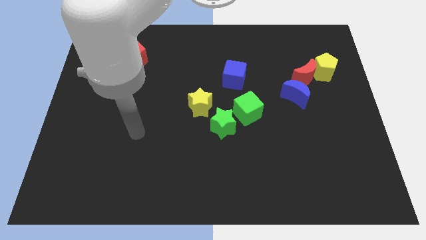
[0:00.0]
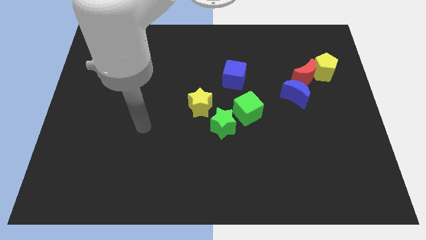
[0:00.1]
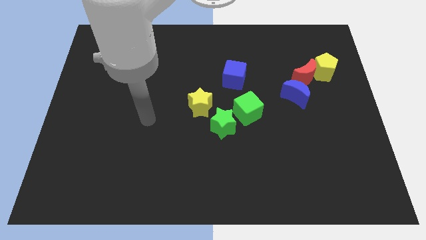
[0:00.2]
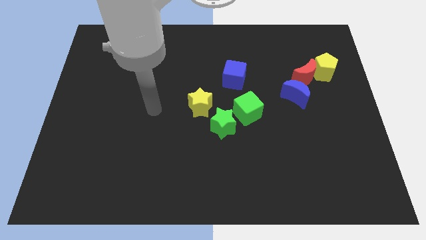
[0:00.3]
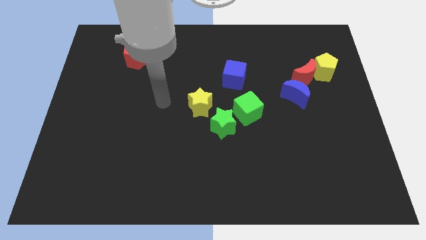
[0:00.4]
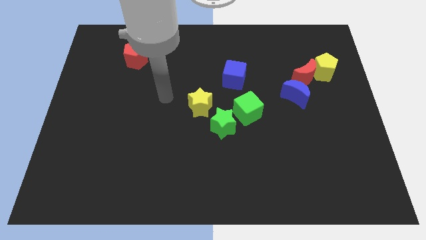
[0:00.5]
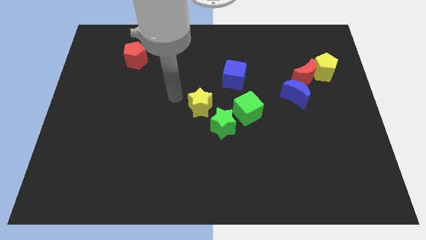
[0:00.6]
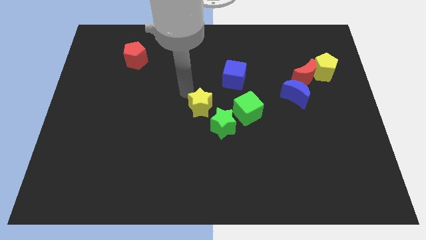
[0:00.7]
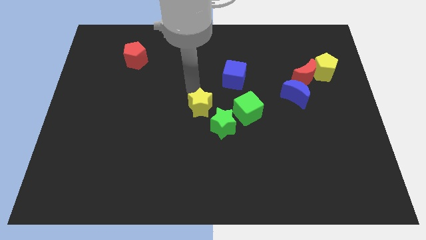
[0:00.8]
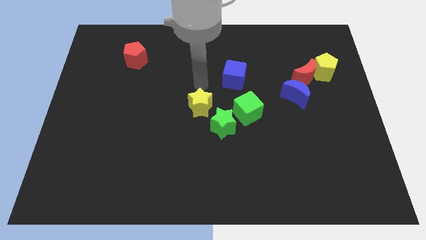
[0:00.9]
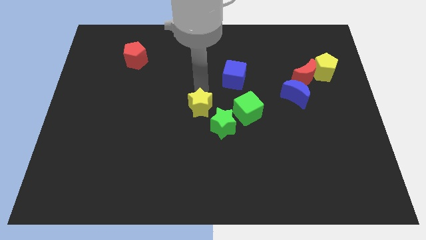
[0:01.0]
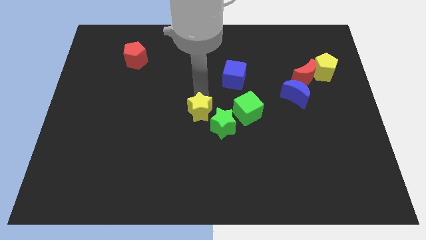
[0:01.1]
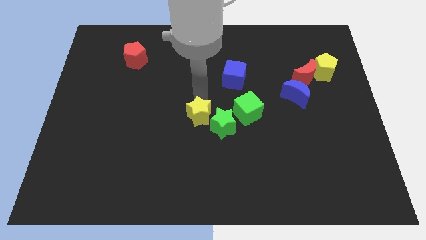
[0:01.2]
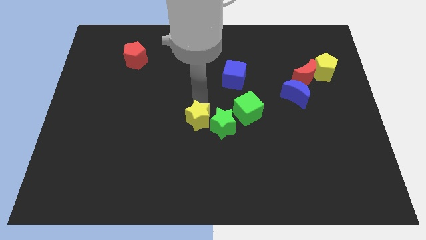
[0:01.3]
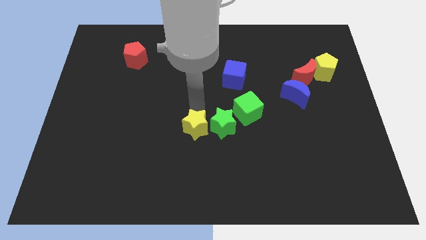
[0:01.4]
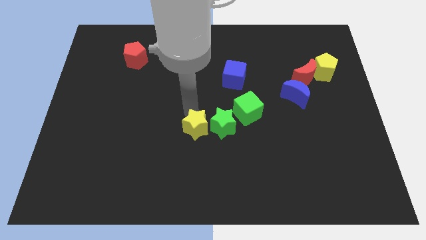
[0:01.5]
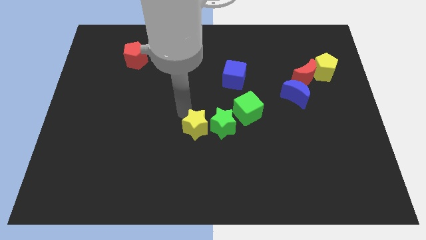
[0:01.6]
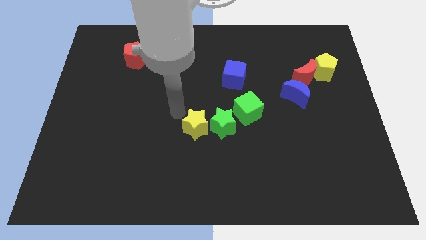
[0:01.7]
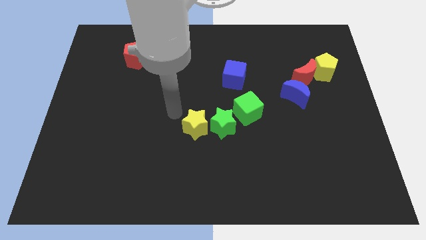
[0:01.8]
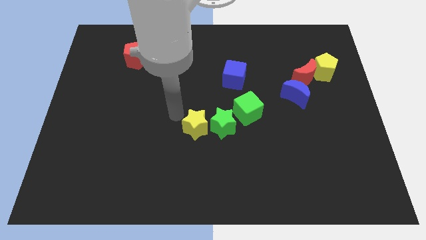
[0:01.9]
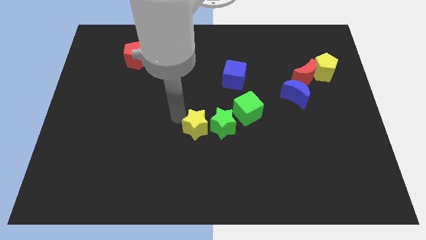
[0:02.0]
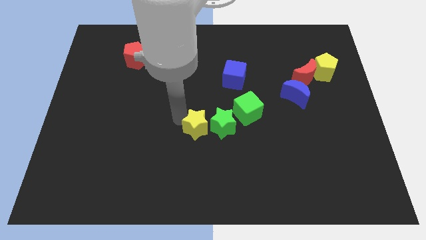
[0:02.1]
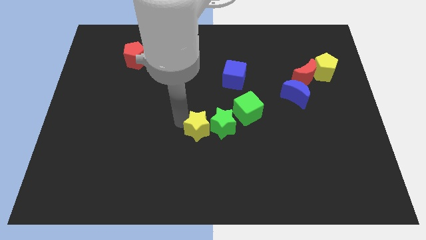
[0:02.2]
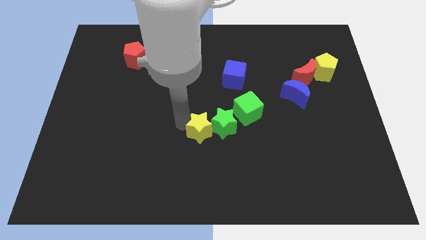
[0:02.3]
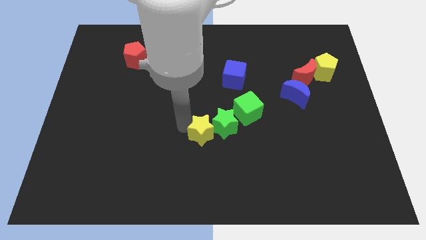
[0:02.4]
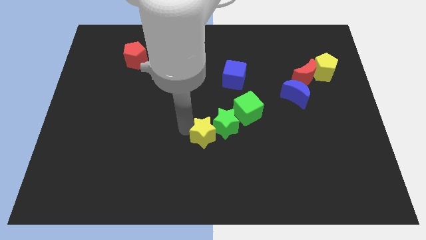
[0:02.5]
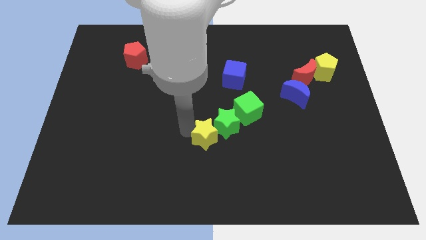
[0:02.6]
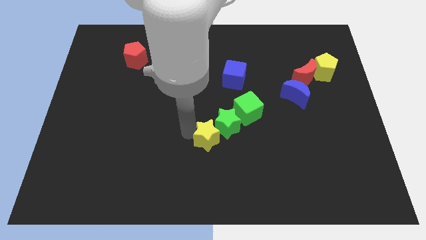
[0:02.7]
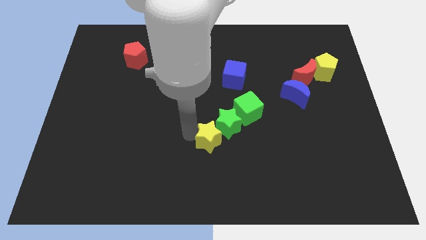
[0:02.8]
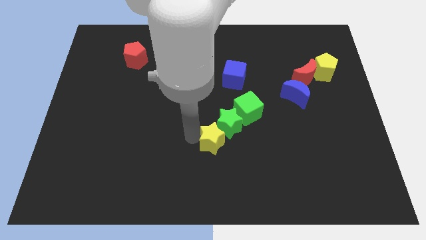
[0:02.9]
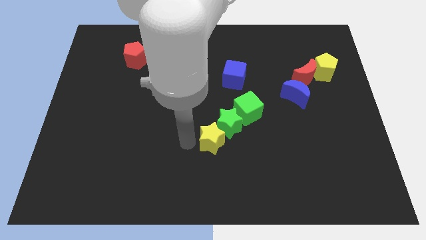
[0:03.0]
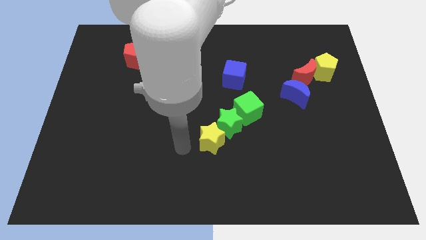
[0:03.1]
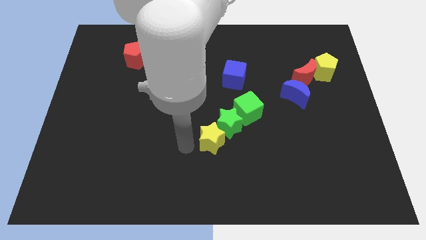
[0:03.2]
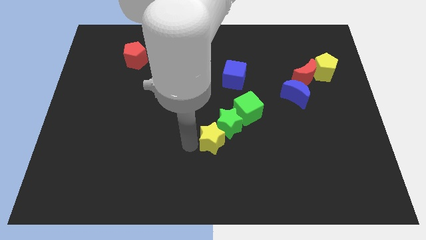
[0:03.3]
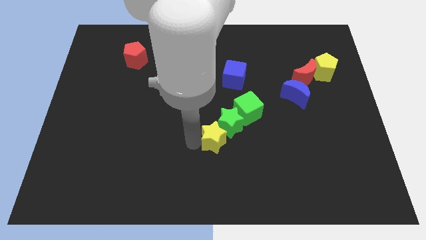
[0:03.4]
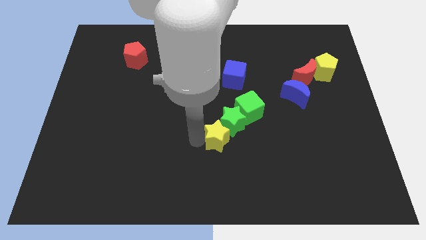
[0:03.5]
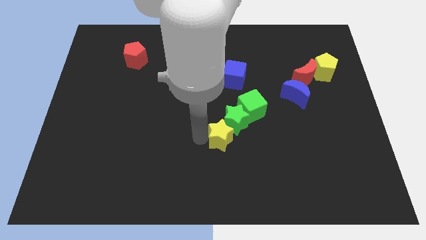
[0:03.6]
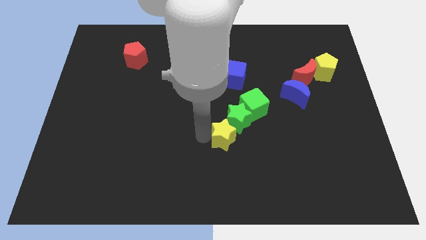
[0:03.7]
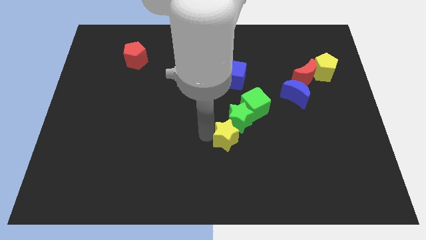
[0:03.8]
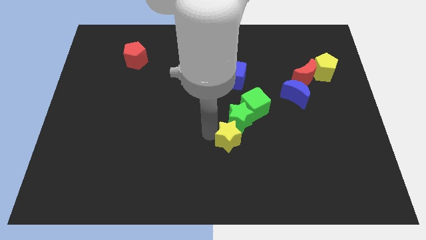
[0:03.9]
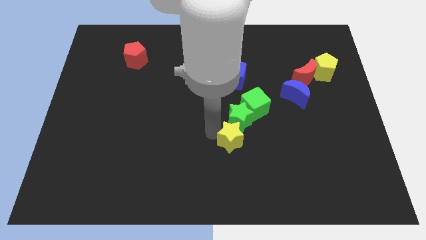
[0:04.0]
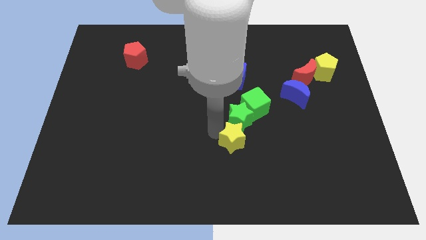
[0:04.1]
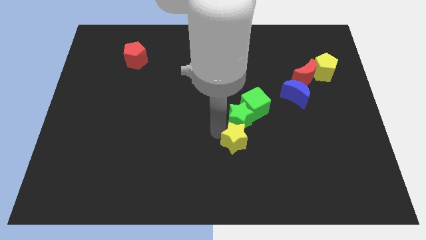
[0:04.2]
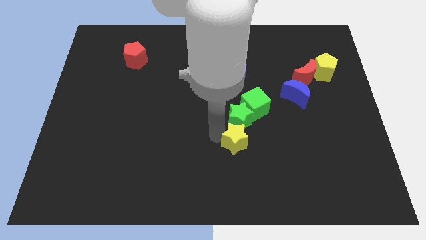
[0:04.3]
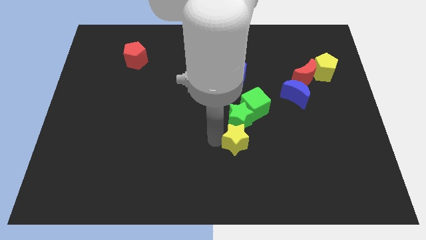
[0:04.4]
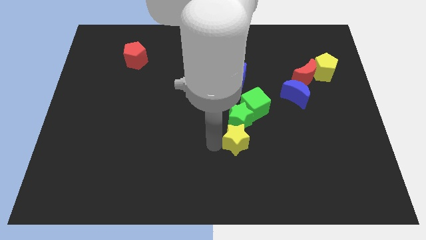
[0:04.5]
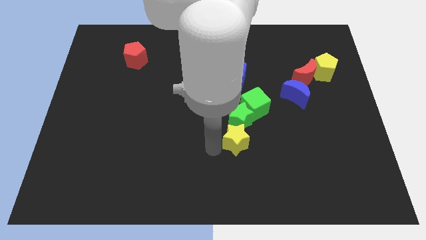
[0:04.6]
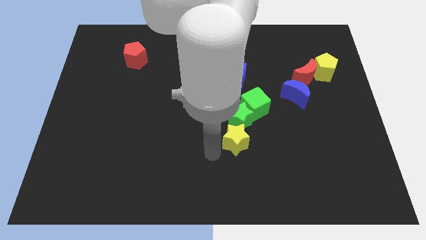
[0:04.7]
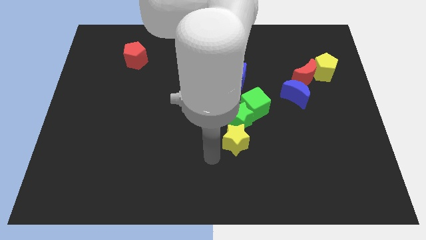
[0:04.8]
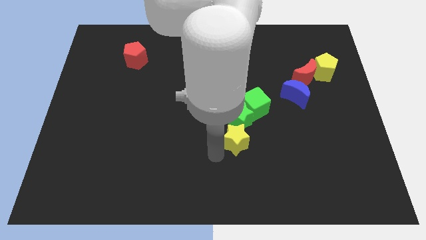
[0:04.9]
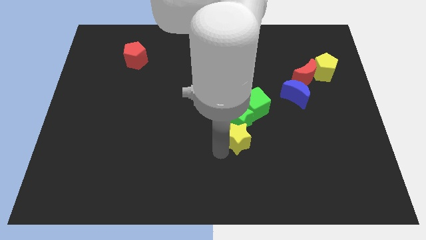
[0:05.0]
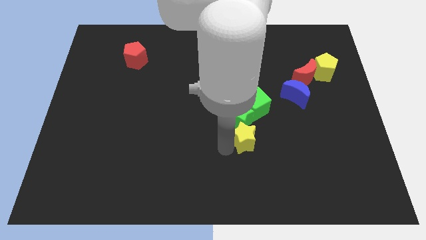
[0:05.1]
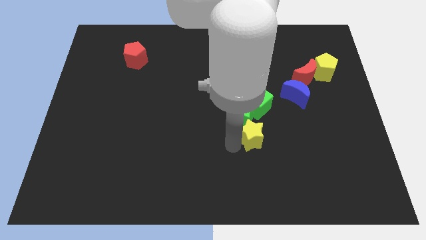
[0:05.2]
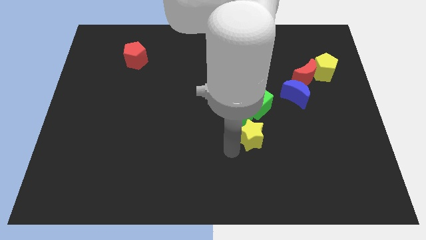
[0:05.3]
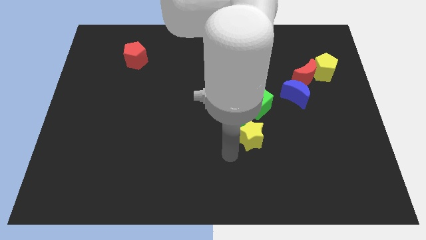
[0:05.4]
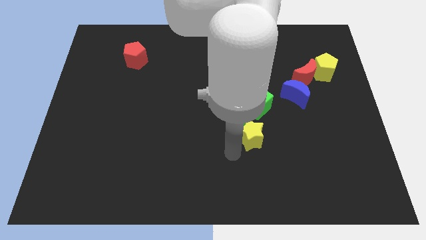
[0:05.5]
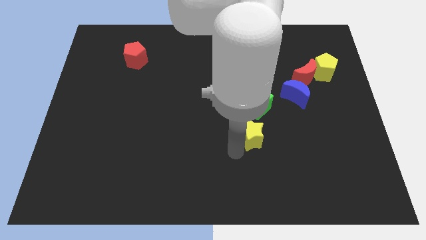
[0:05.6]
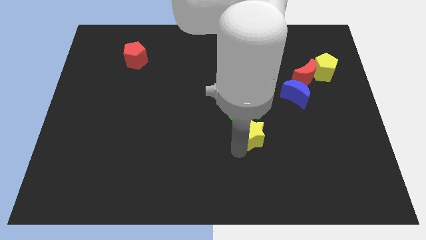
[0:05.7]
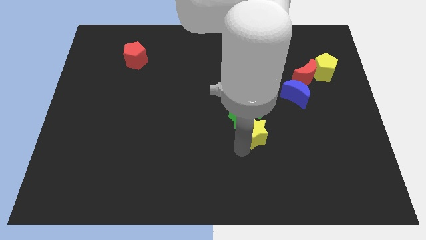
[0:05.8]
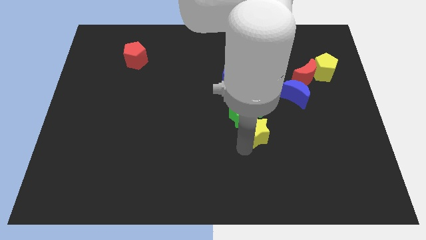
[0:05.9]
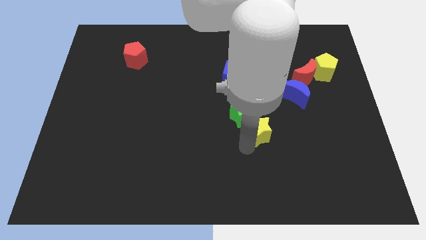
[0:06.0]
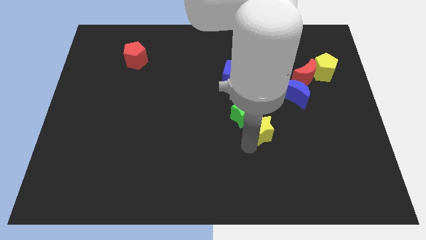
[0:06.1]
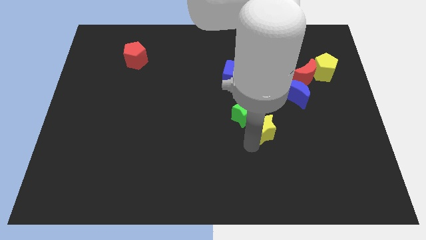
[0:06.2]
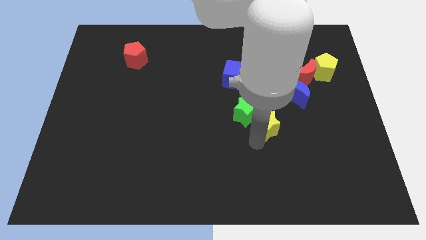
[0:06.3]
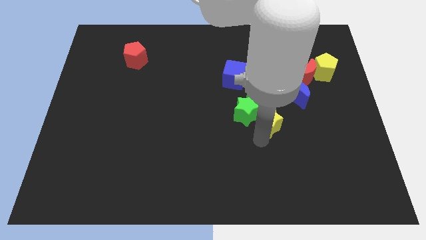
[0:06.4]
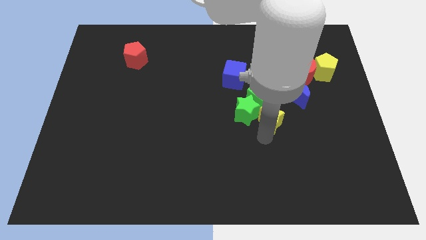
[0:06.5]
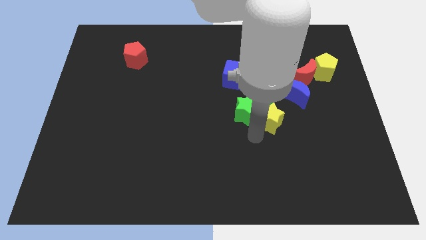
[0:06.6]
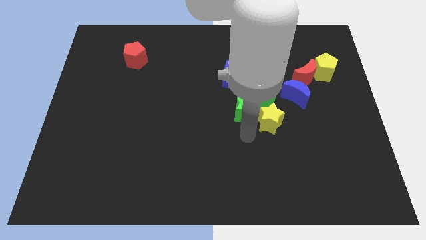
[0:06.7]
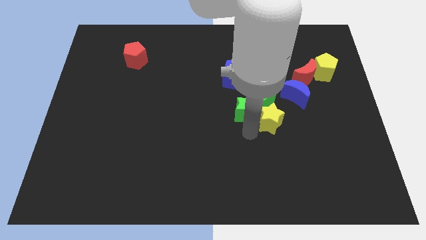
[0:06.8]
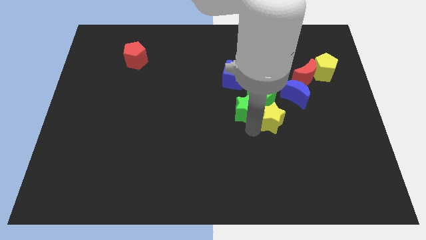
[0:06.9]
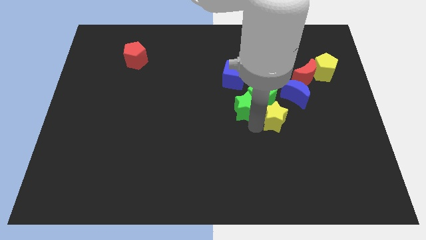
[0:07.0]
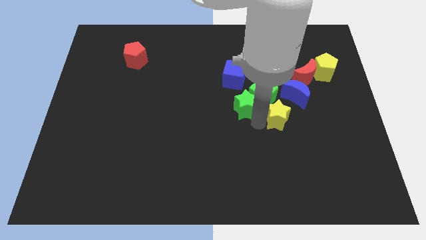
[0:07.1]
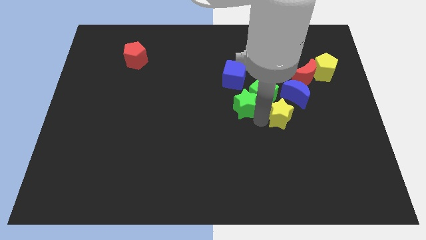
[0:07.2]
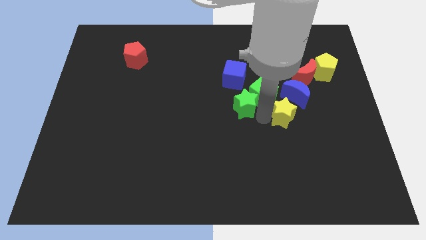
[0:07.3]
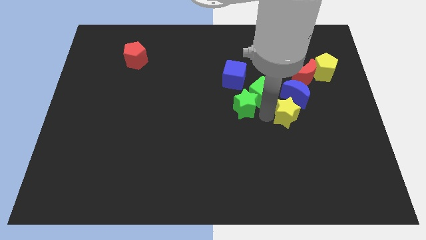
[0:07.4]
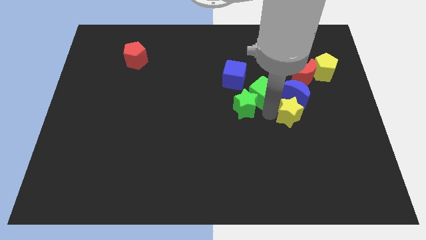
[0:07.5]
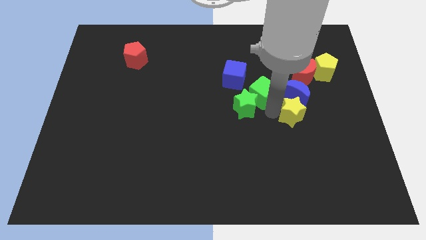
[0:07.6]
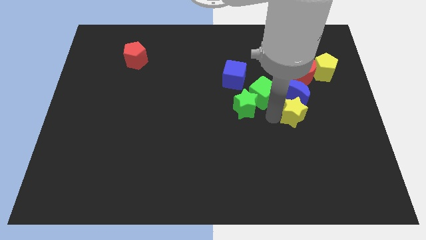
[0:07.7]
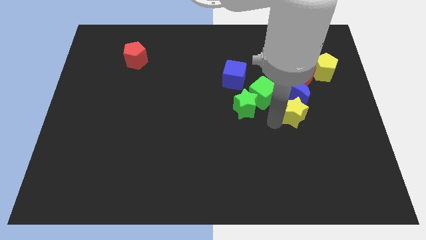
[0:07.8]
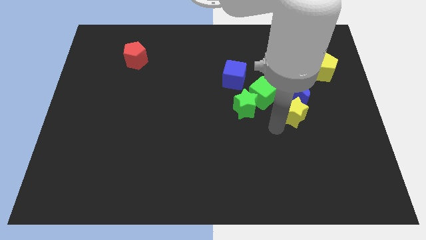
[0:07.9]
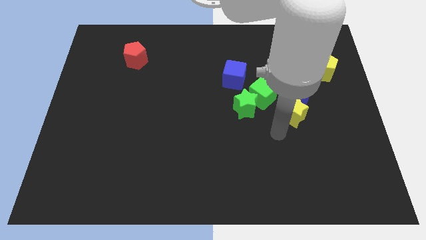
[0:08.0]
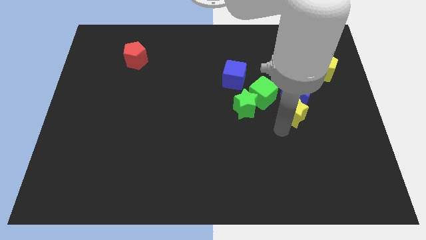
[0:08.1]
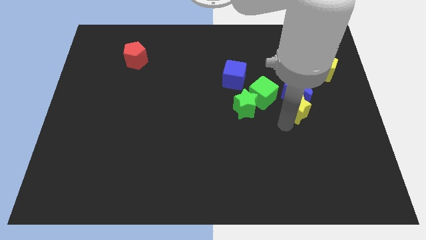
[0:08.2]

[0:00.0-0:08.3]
slide the yellow star right of the green cube
